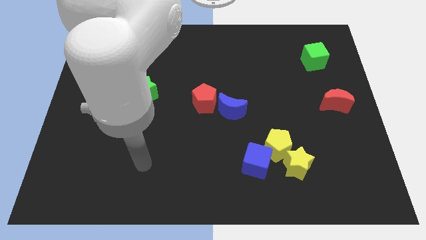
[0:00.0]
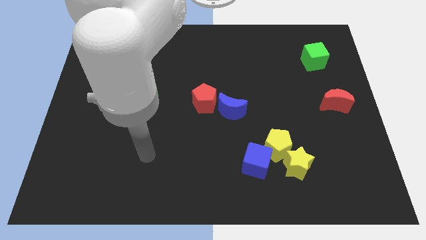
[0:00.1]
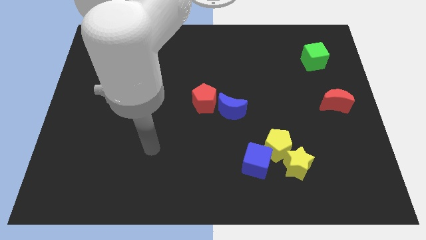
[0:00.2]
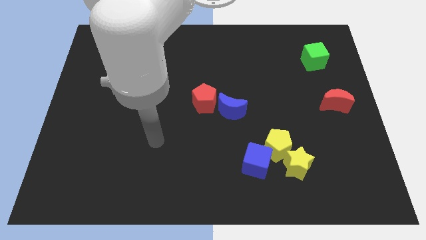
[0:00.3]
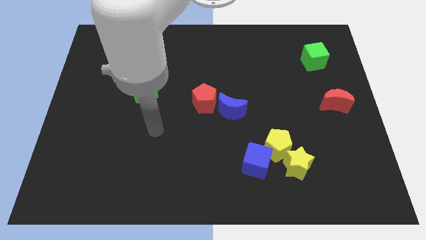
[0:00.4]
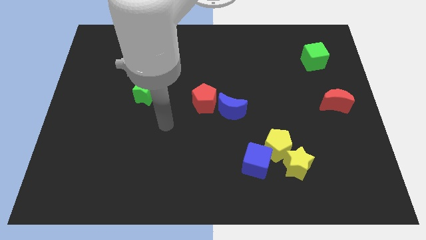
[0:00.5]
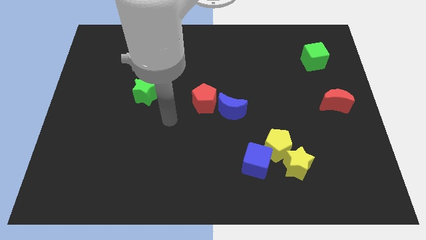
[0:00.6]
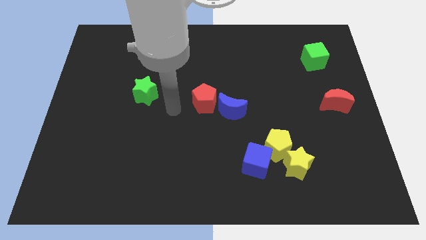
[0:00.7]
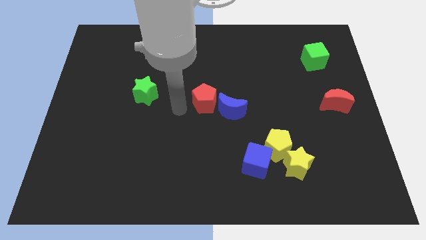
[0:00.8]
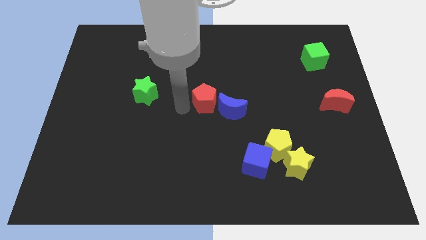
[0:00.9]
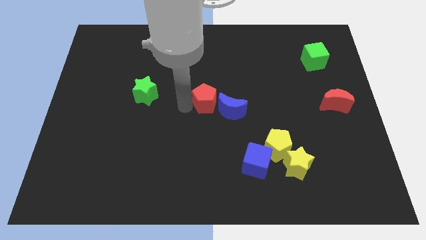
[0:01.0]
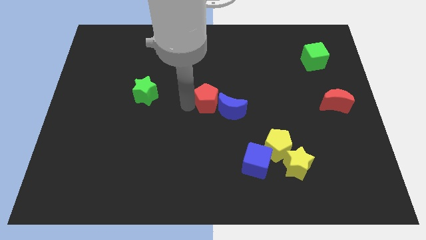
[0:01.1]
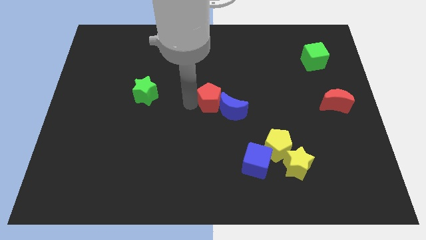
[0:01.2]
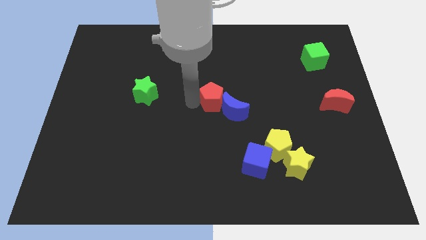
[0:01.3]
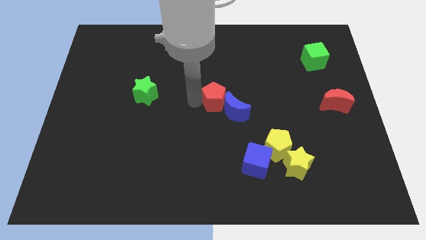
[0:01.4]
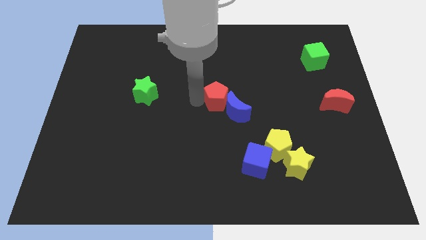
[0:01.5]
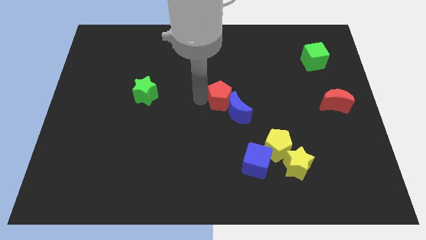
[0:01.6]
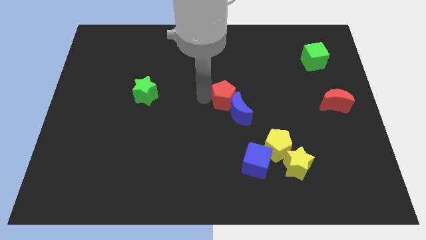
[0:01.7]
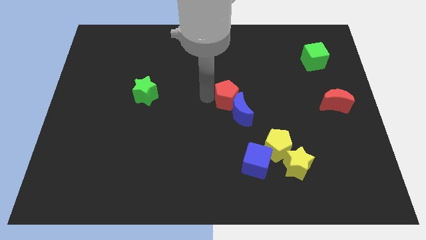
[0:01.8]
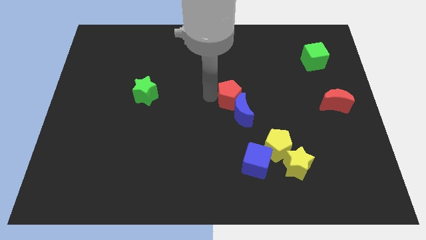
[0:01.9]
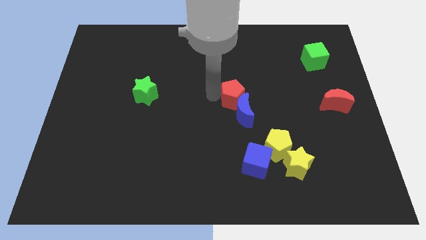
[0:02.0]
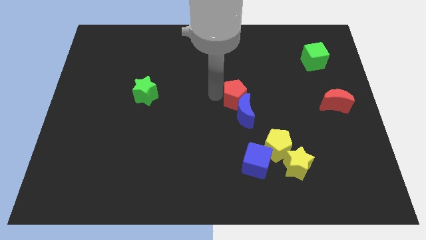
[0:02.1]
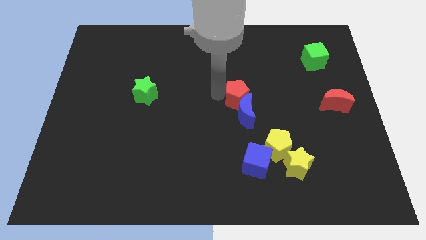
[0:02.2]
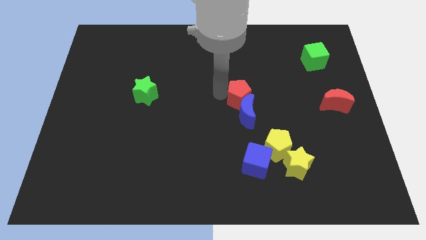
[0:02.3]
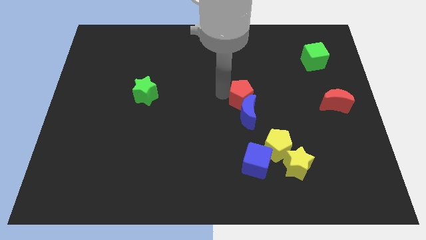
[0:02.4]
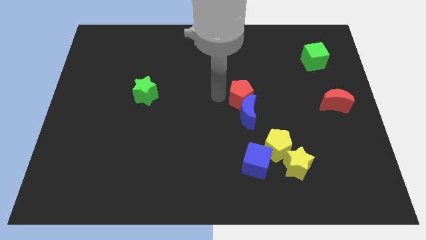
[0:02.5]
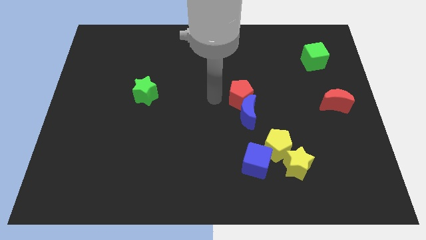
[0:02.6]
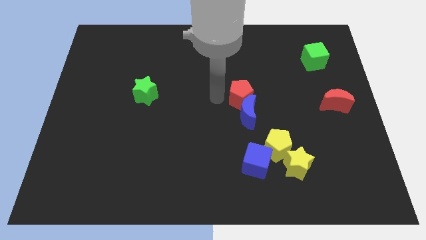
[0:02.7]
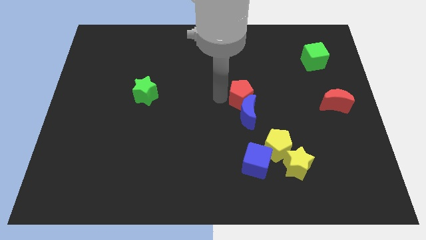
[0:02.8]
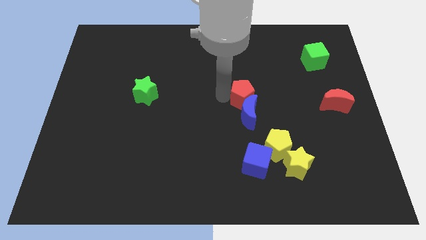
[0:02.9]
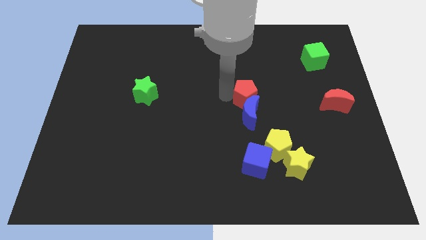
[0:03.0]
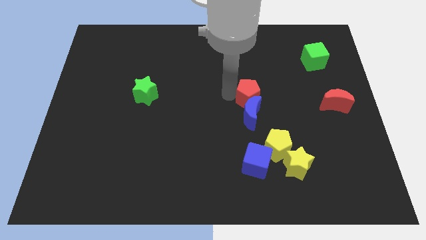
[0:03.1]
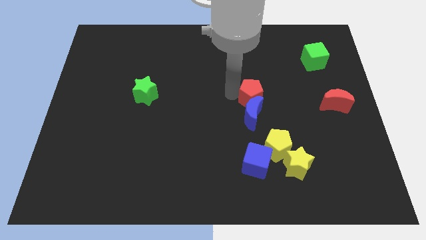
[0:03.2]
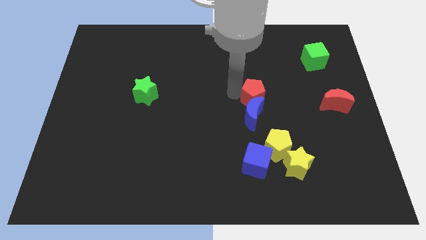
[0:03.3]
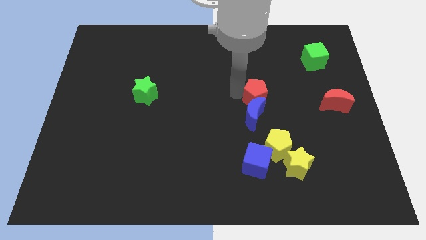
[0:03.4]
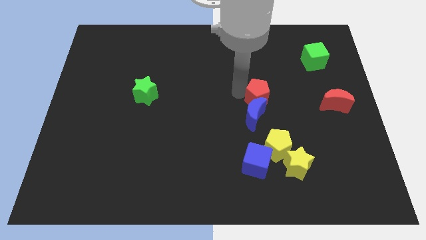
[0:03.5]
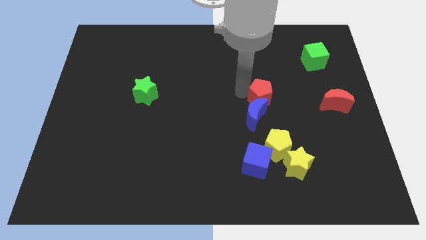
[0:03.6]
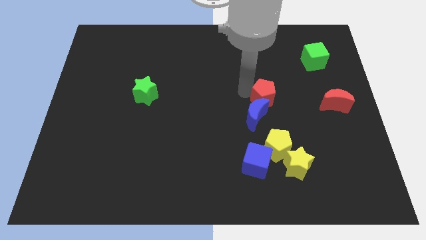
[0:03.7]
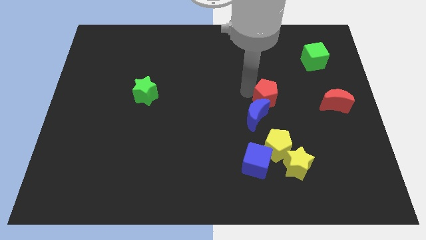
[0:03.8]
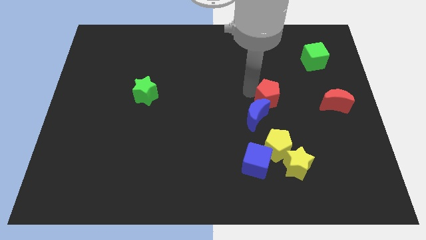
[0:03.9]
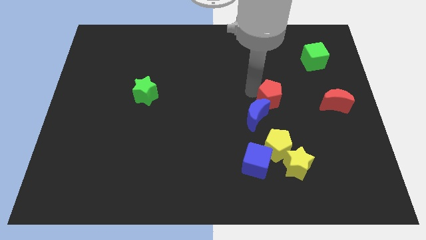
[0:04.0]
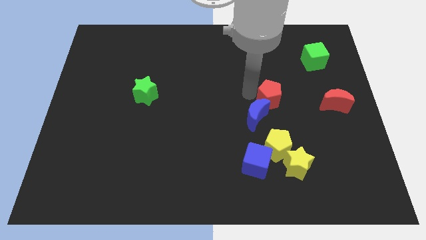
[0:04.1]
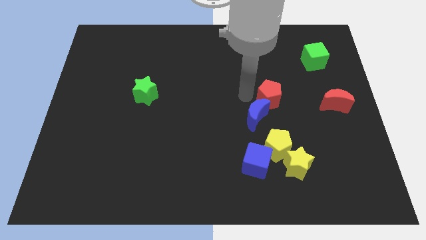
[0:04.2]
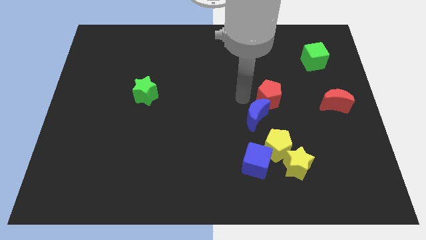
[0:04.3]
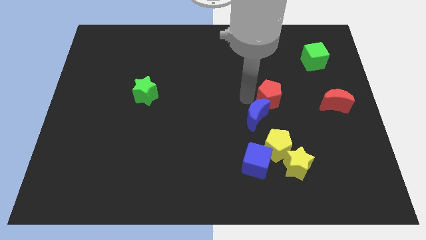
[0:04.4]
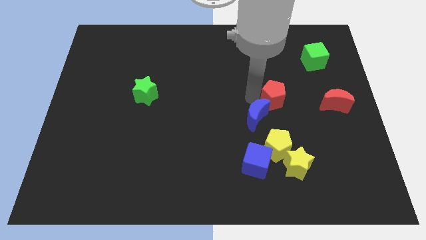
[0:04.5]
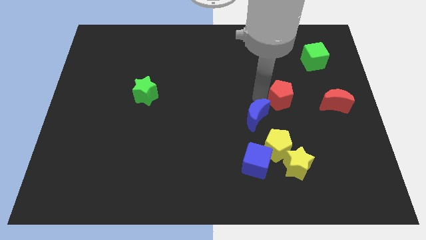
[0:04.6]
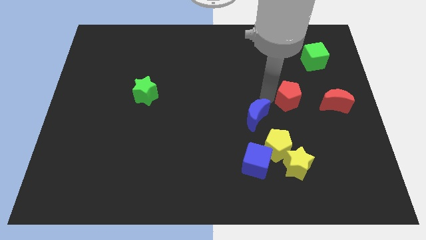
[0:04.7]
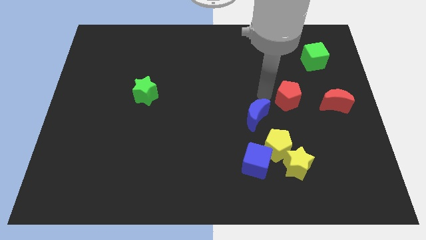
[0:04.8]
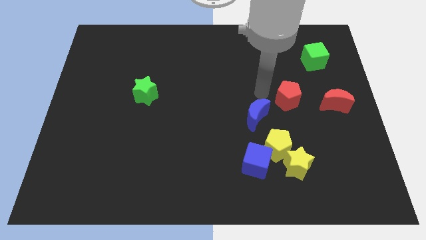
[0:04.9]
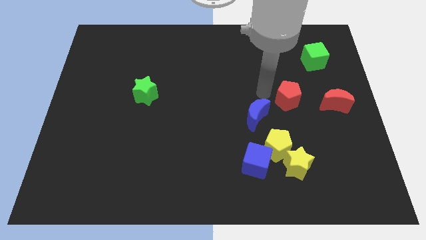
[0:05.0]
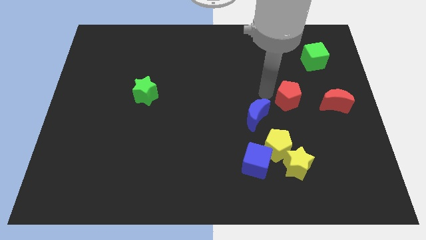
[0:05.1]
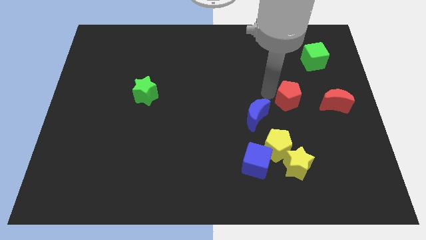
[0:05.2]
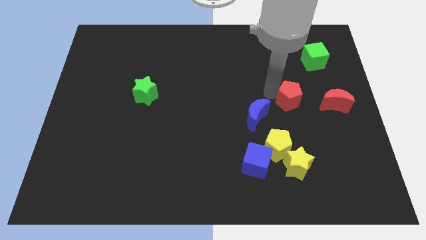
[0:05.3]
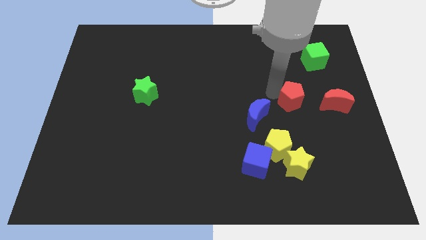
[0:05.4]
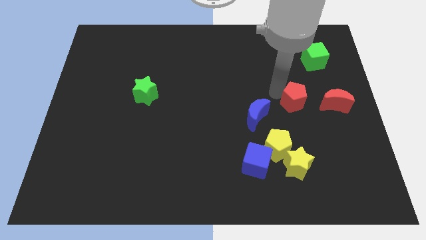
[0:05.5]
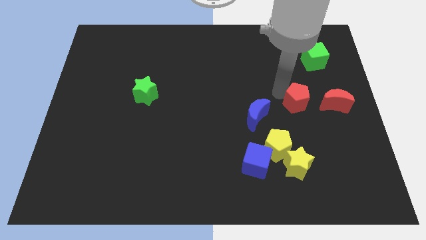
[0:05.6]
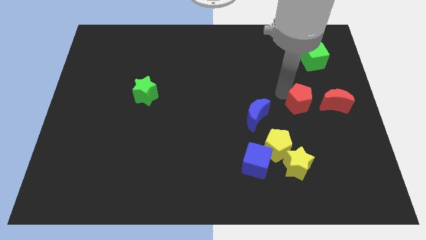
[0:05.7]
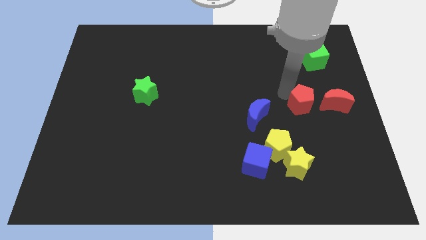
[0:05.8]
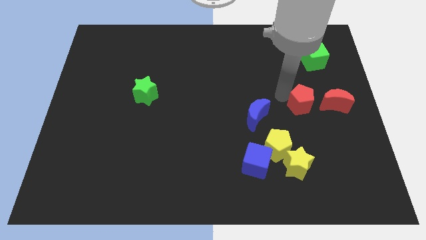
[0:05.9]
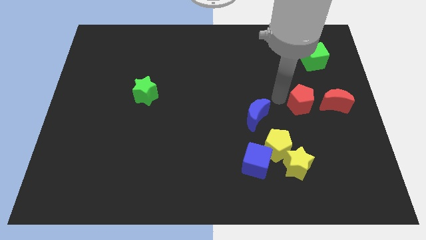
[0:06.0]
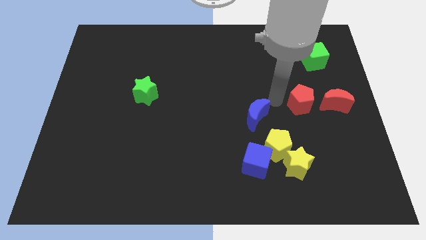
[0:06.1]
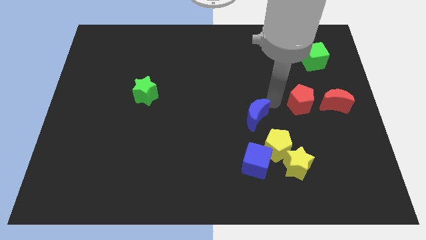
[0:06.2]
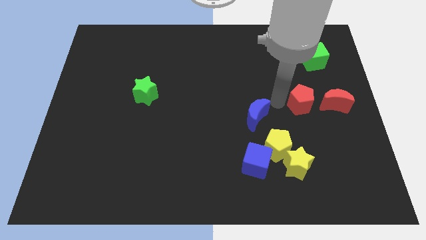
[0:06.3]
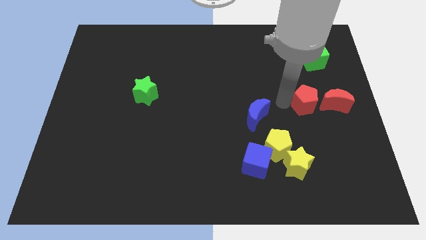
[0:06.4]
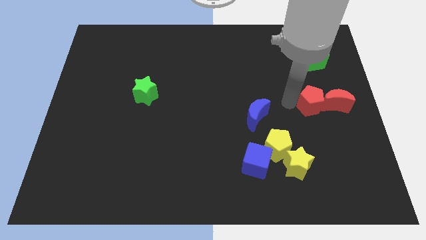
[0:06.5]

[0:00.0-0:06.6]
move the red pentagon close to the red moon
